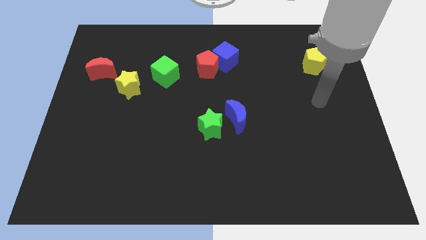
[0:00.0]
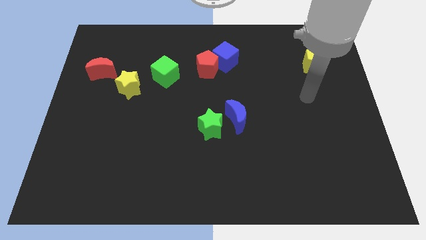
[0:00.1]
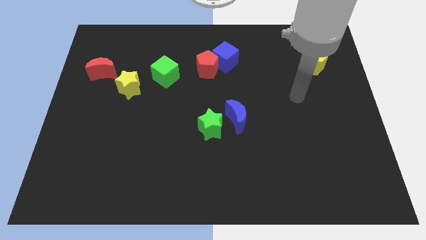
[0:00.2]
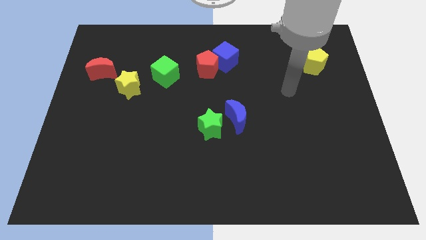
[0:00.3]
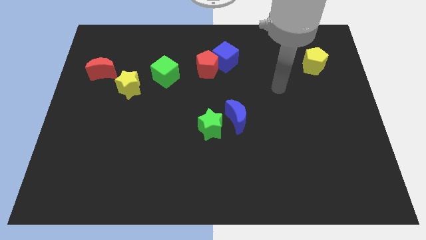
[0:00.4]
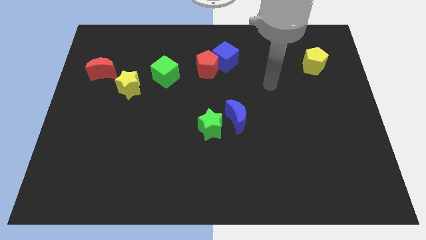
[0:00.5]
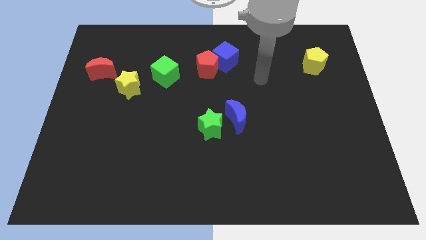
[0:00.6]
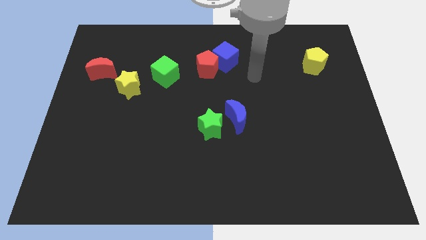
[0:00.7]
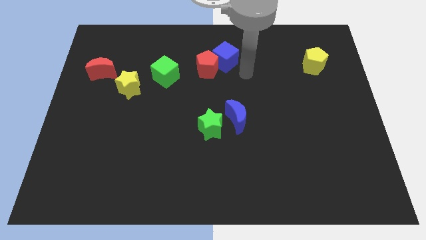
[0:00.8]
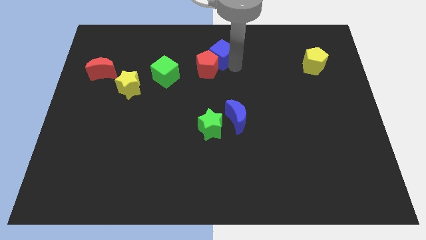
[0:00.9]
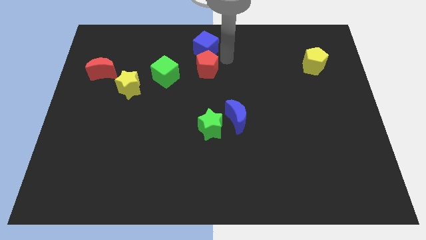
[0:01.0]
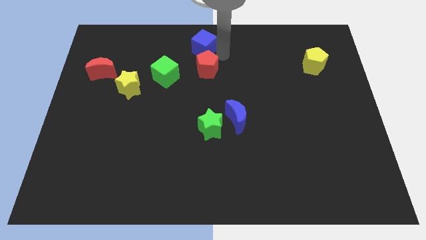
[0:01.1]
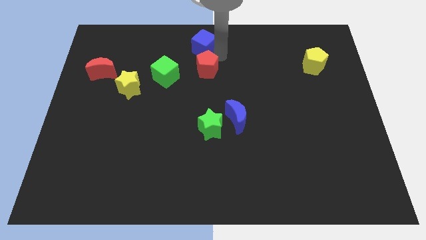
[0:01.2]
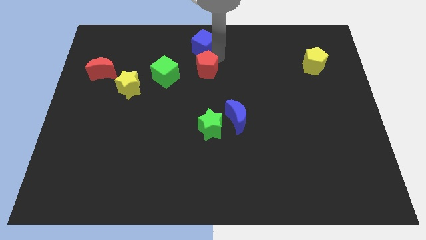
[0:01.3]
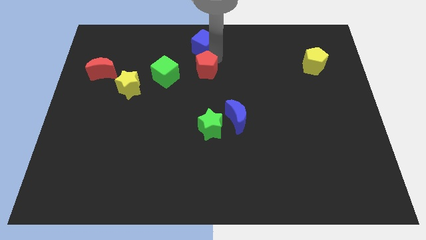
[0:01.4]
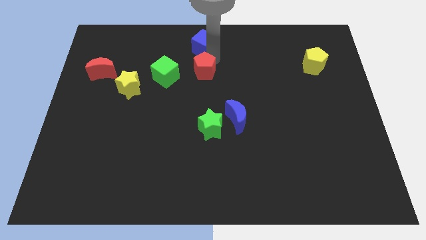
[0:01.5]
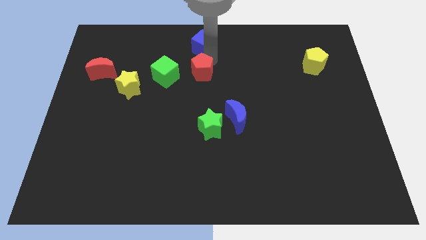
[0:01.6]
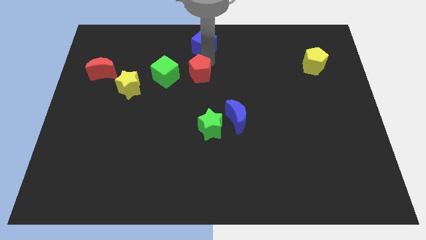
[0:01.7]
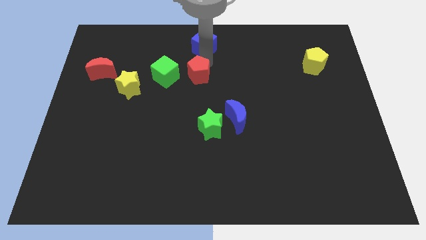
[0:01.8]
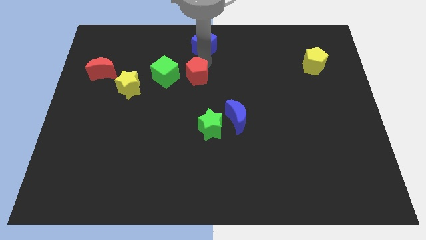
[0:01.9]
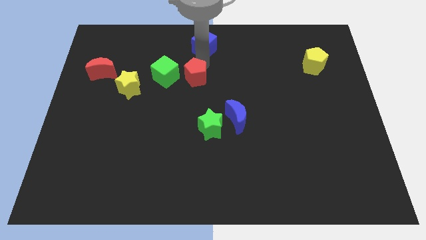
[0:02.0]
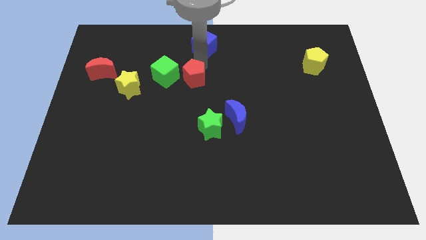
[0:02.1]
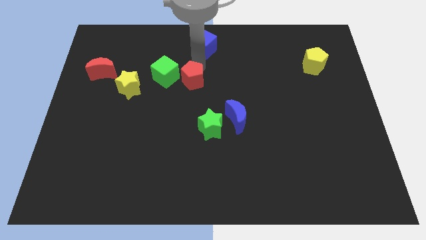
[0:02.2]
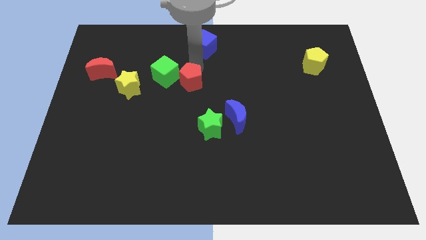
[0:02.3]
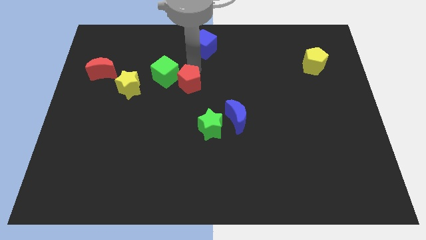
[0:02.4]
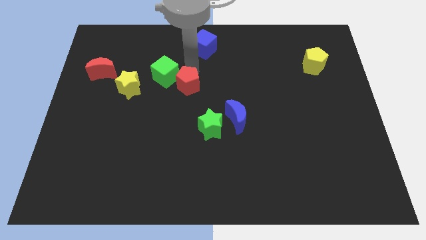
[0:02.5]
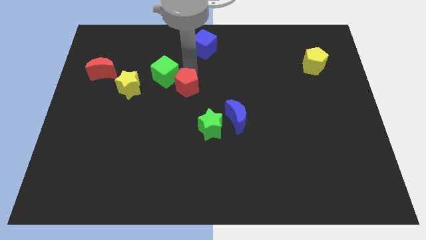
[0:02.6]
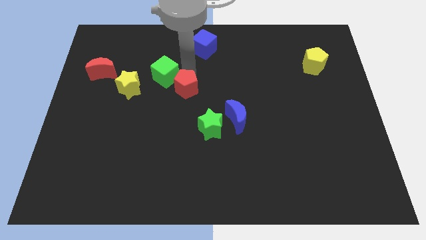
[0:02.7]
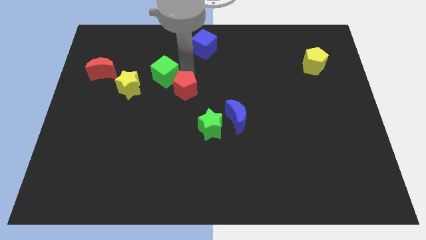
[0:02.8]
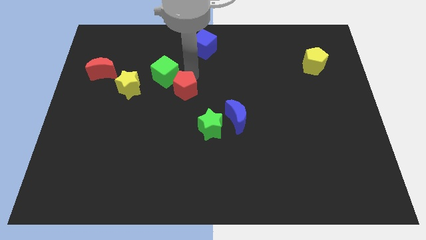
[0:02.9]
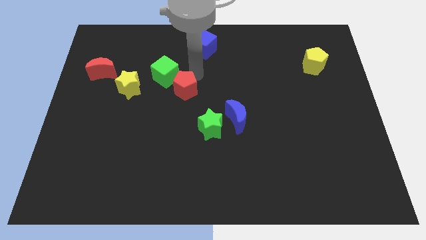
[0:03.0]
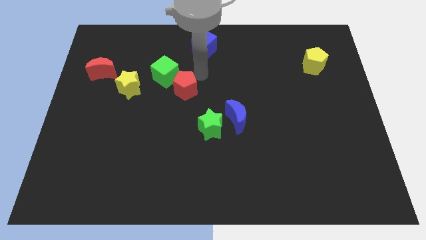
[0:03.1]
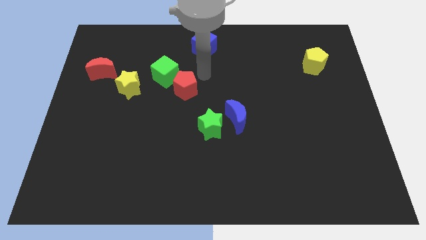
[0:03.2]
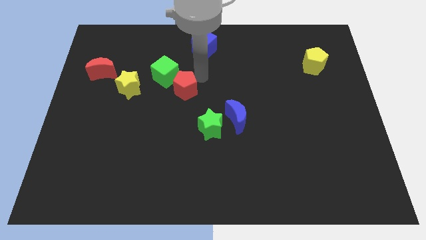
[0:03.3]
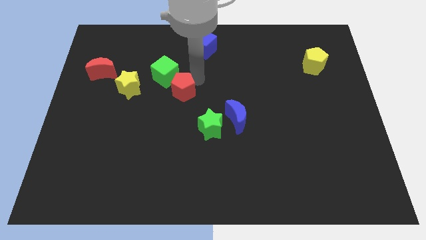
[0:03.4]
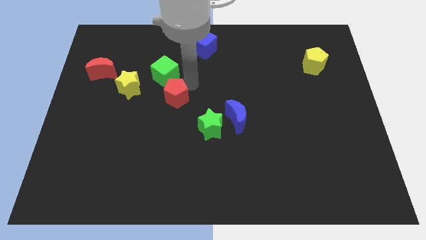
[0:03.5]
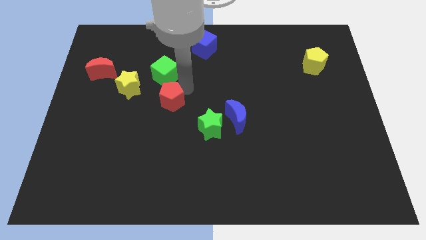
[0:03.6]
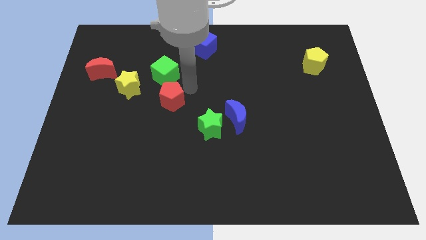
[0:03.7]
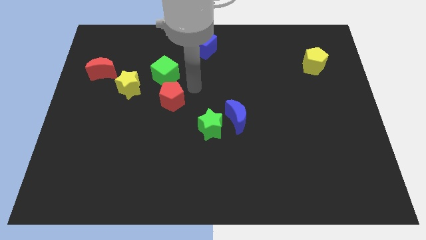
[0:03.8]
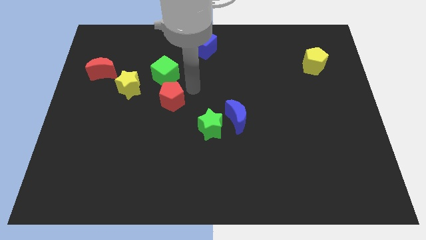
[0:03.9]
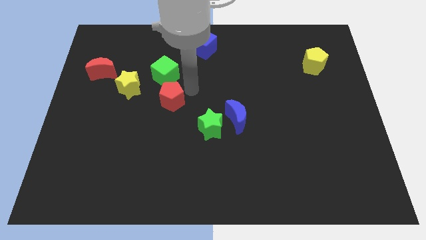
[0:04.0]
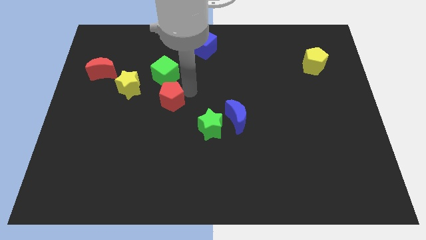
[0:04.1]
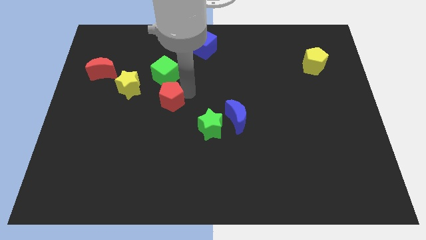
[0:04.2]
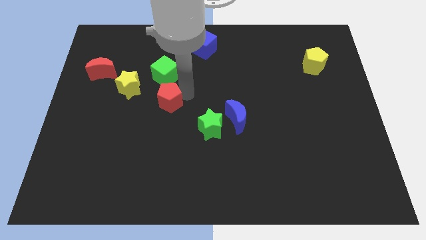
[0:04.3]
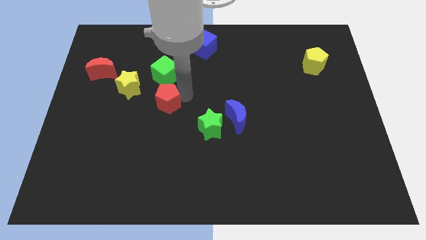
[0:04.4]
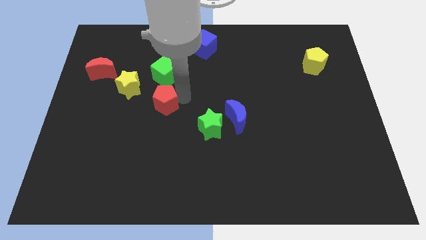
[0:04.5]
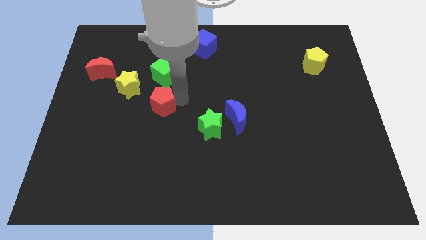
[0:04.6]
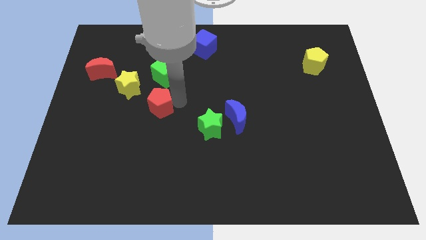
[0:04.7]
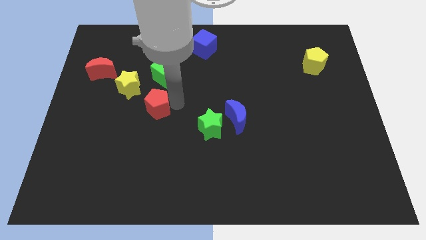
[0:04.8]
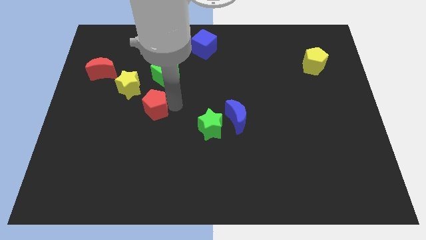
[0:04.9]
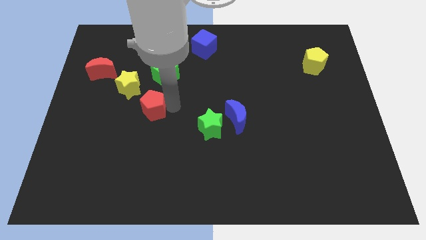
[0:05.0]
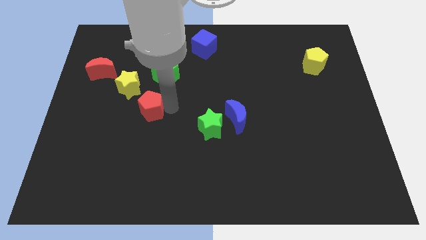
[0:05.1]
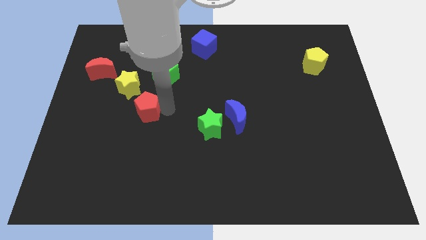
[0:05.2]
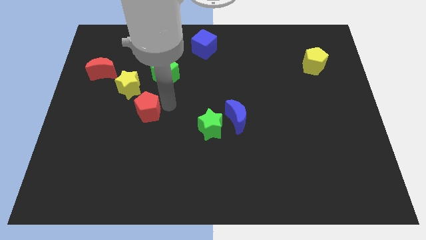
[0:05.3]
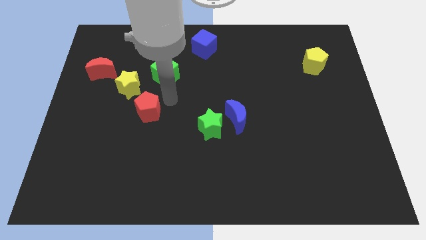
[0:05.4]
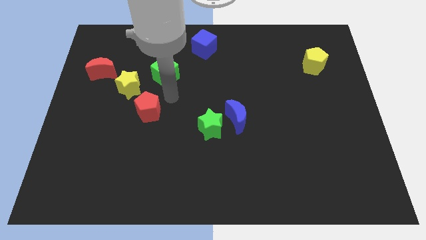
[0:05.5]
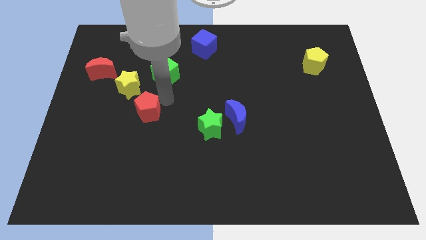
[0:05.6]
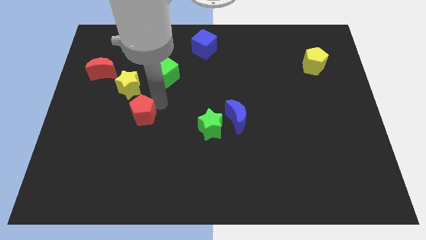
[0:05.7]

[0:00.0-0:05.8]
move the red pentagon down and to the left

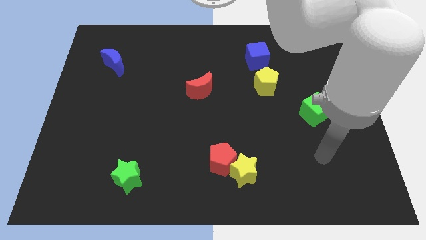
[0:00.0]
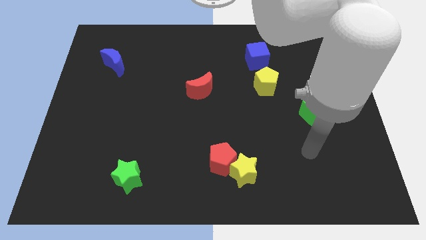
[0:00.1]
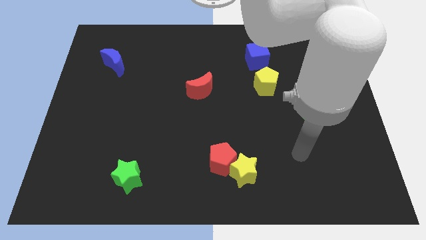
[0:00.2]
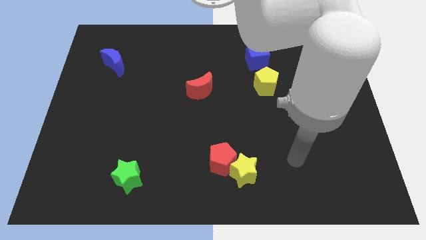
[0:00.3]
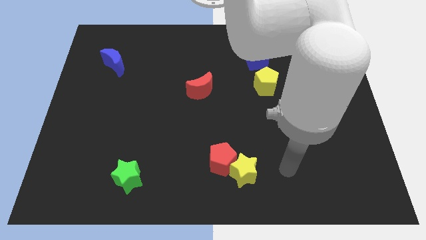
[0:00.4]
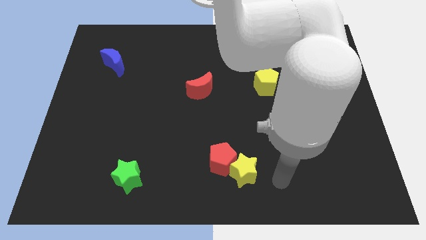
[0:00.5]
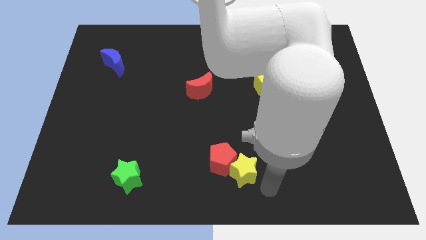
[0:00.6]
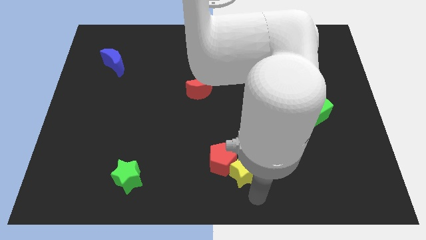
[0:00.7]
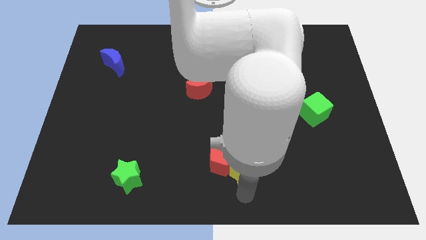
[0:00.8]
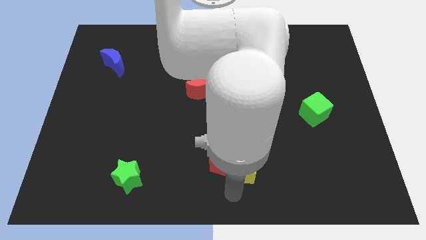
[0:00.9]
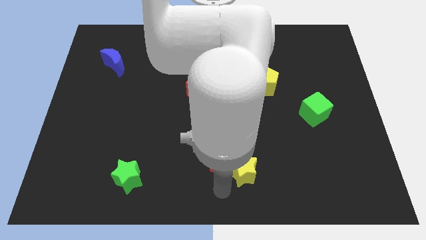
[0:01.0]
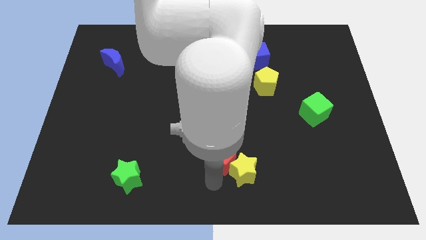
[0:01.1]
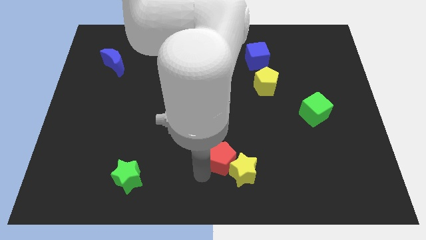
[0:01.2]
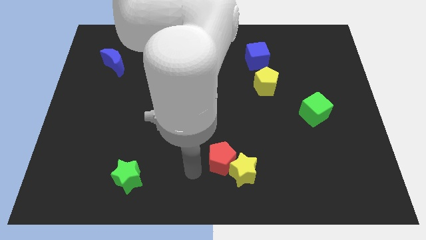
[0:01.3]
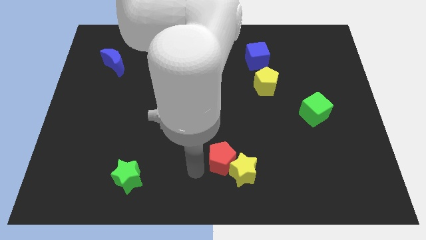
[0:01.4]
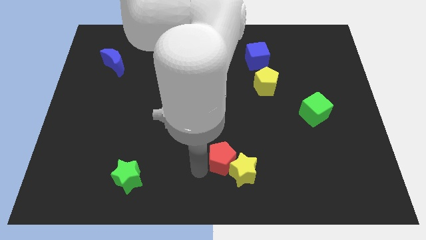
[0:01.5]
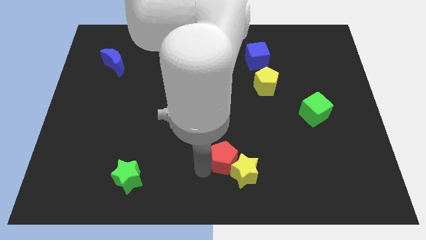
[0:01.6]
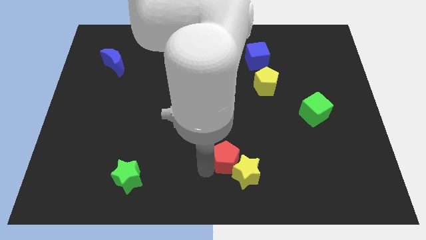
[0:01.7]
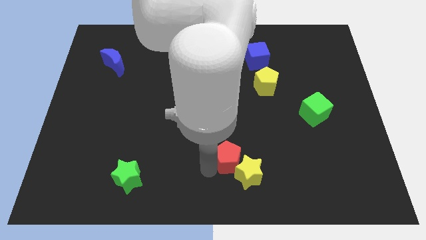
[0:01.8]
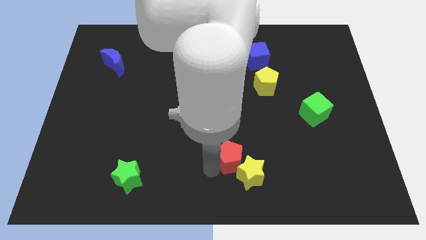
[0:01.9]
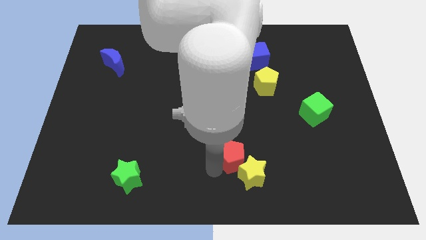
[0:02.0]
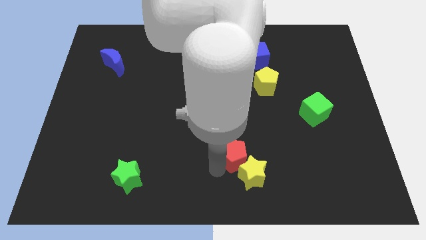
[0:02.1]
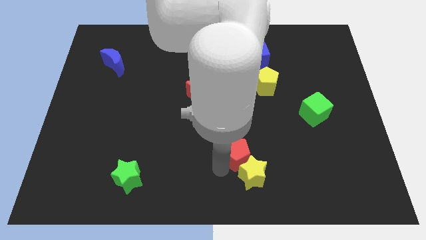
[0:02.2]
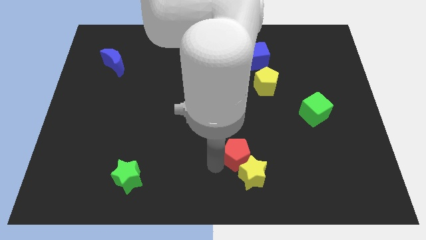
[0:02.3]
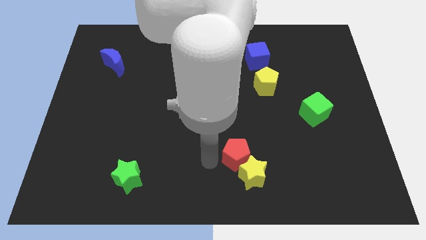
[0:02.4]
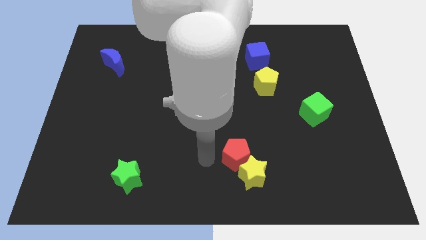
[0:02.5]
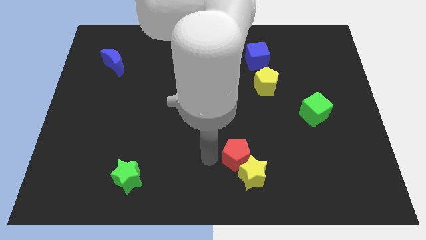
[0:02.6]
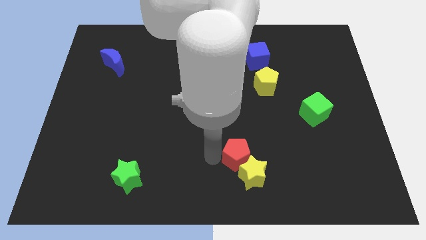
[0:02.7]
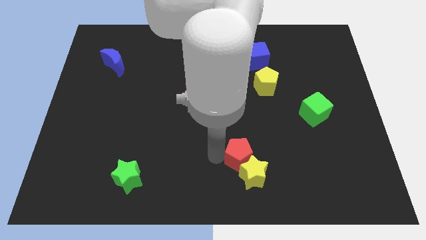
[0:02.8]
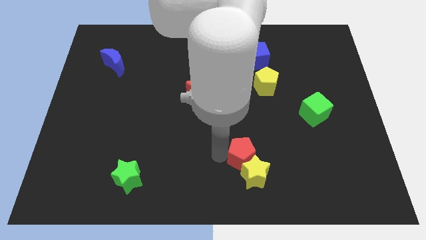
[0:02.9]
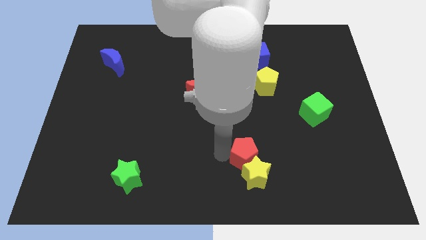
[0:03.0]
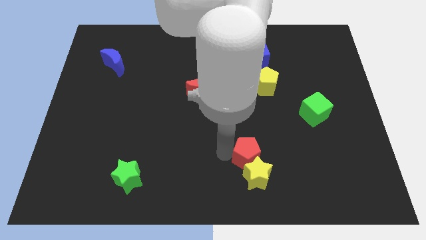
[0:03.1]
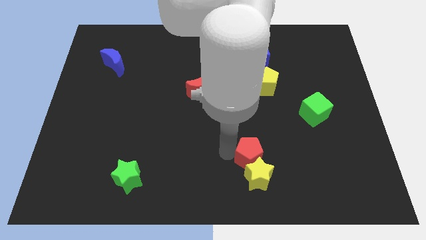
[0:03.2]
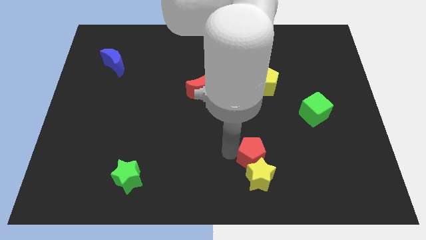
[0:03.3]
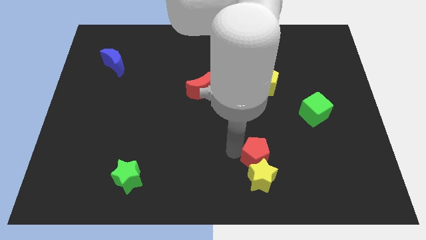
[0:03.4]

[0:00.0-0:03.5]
slide the red pentagon a little bit to the right
